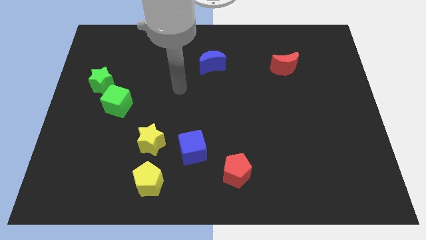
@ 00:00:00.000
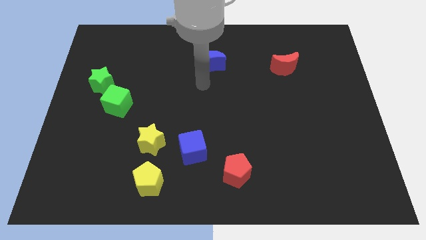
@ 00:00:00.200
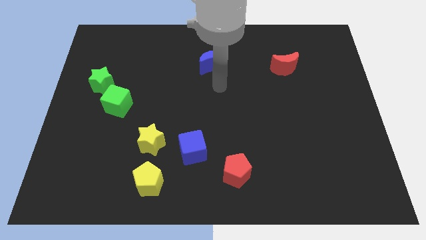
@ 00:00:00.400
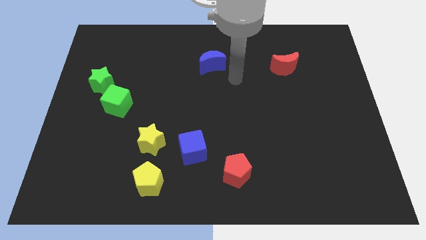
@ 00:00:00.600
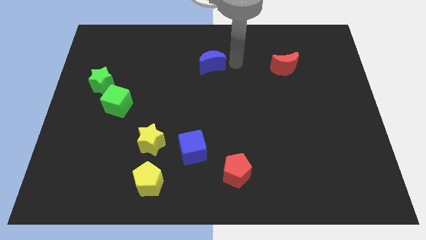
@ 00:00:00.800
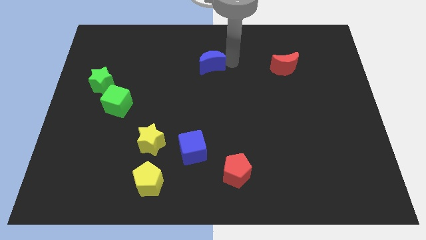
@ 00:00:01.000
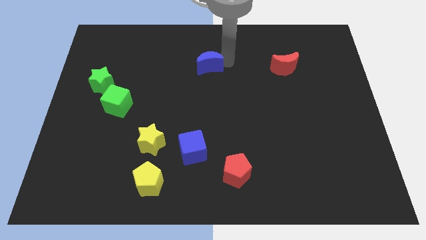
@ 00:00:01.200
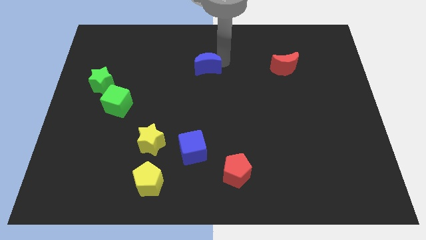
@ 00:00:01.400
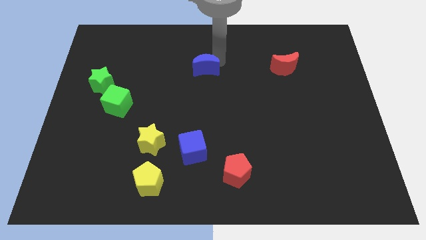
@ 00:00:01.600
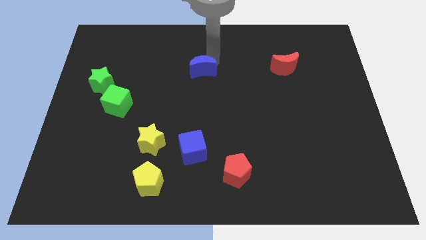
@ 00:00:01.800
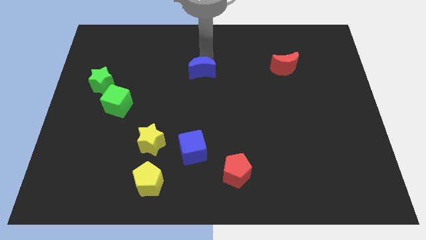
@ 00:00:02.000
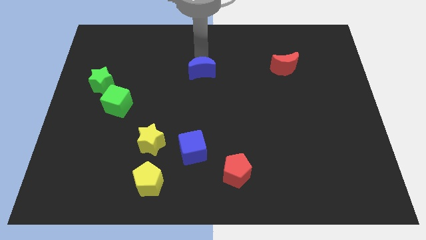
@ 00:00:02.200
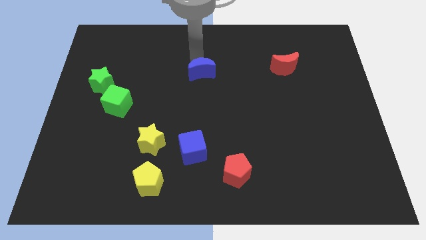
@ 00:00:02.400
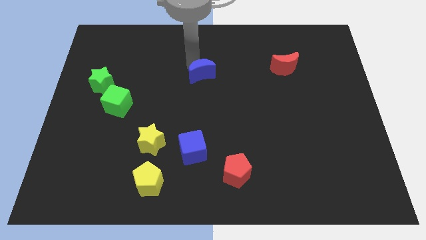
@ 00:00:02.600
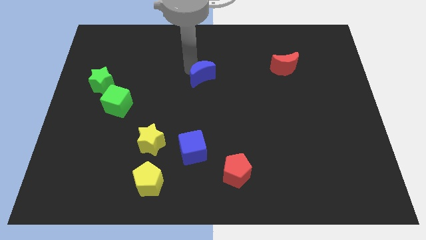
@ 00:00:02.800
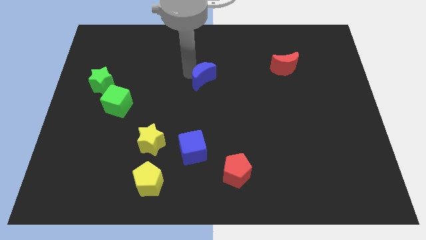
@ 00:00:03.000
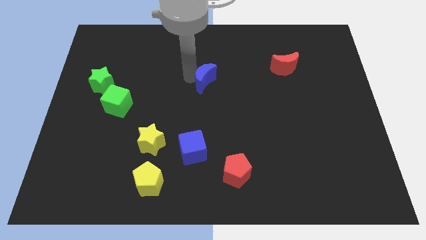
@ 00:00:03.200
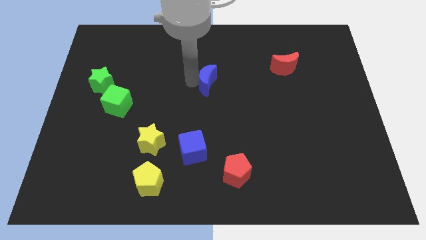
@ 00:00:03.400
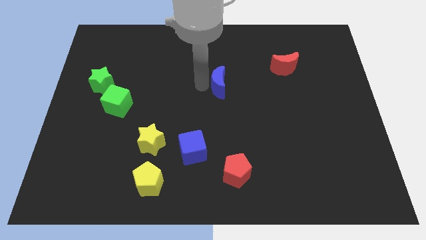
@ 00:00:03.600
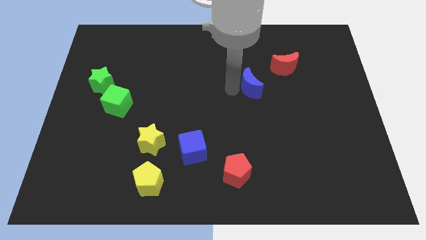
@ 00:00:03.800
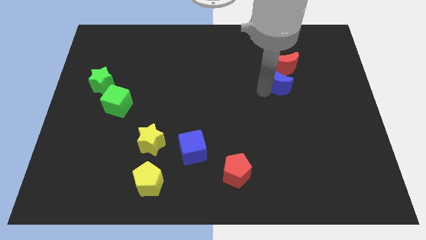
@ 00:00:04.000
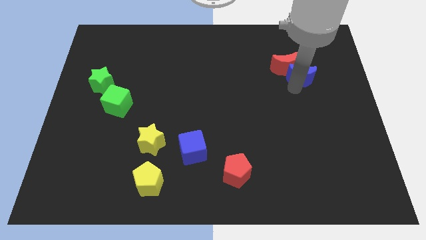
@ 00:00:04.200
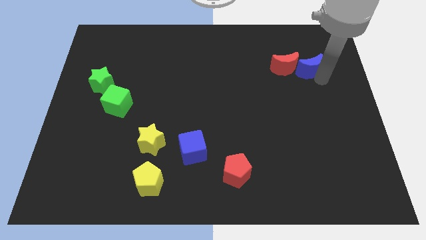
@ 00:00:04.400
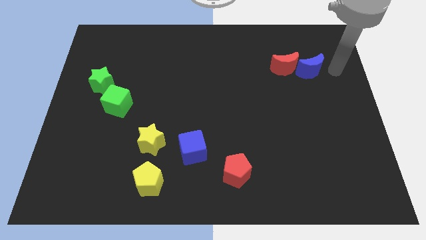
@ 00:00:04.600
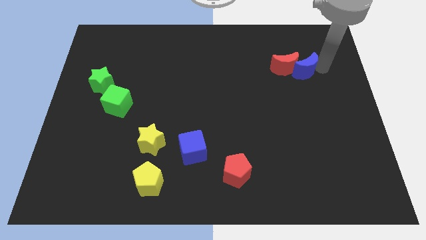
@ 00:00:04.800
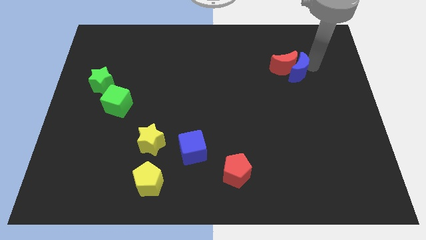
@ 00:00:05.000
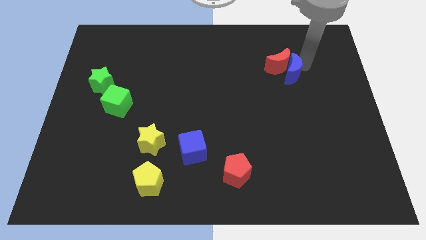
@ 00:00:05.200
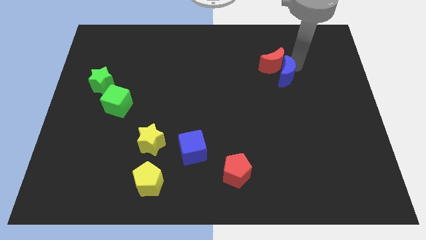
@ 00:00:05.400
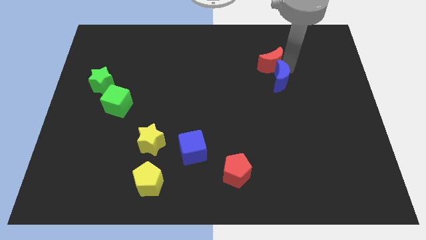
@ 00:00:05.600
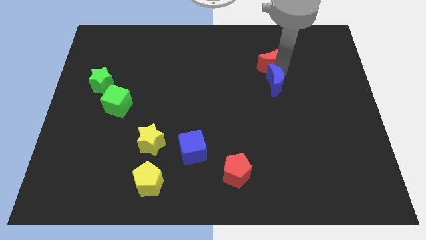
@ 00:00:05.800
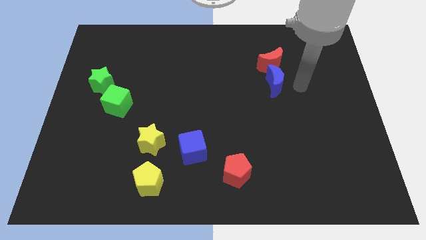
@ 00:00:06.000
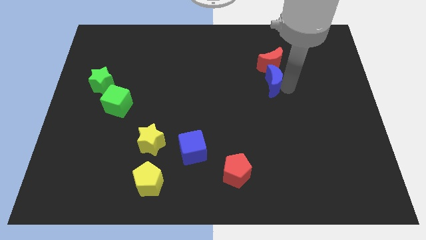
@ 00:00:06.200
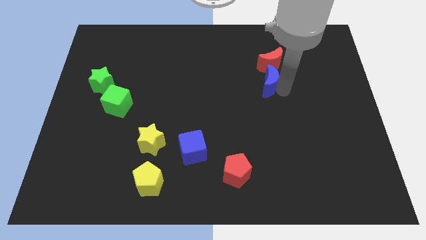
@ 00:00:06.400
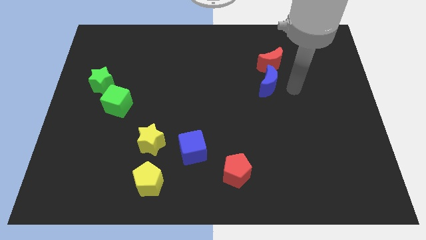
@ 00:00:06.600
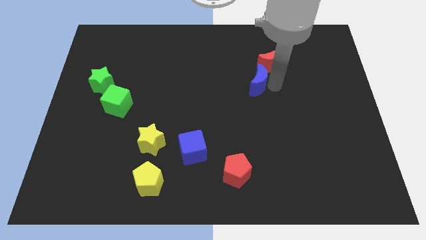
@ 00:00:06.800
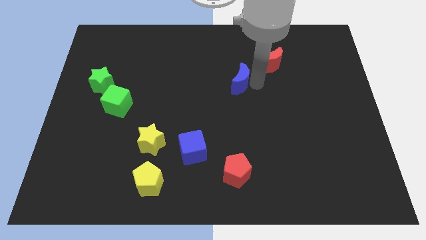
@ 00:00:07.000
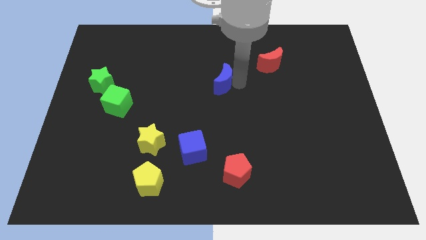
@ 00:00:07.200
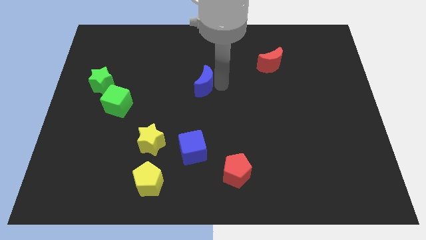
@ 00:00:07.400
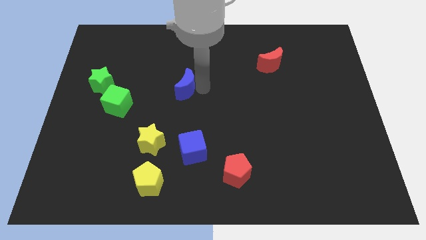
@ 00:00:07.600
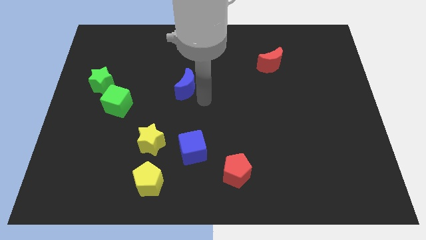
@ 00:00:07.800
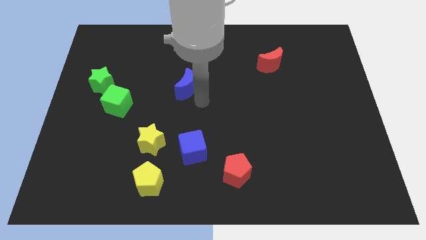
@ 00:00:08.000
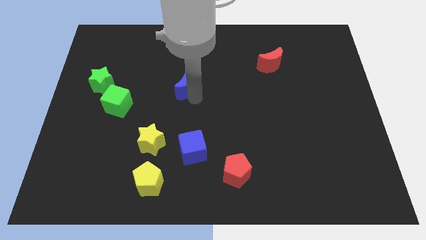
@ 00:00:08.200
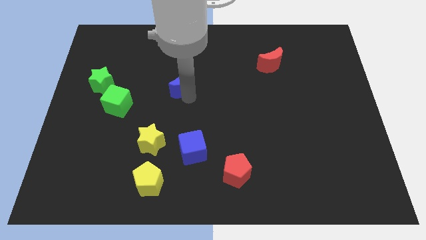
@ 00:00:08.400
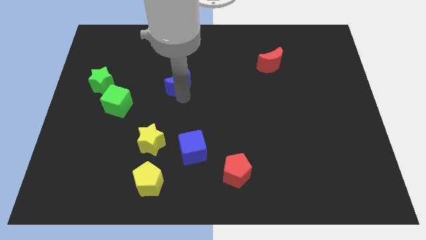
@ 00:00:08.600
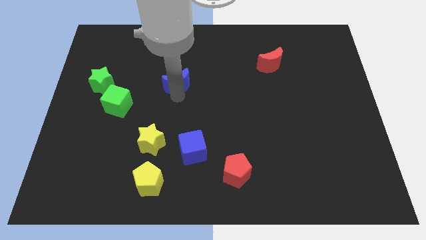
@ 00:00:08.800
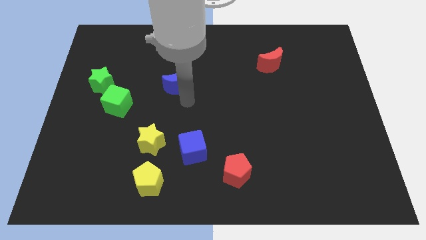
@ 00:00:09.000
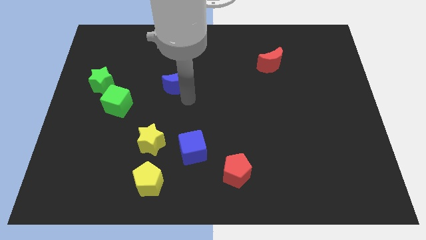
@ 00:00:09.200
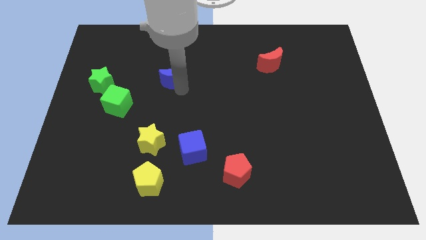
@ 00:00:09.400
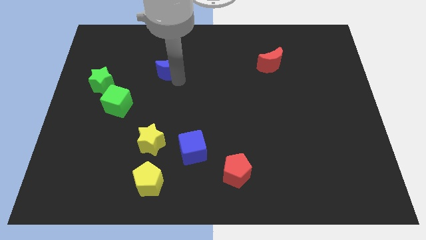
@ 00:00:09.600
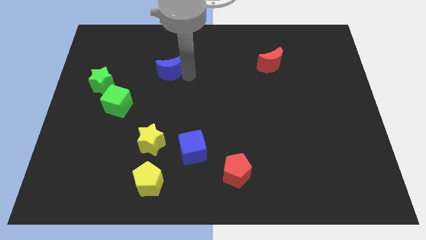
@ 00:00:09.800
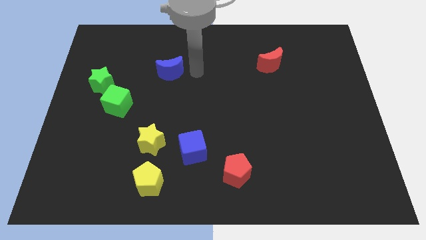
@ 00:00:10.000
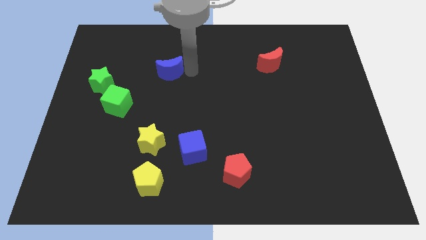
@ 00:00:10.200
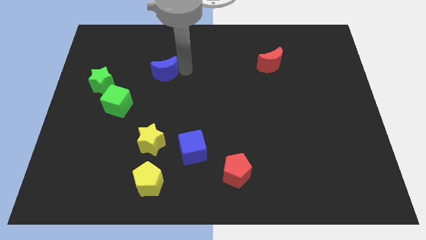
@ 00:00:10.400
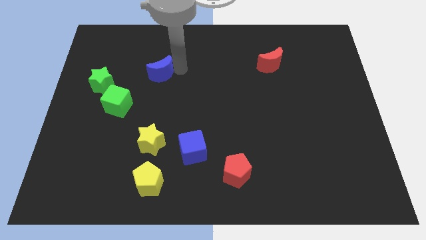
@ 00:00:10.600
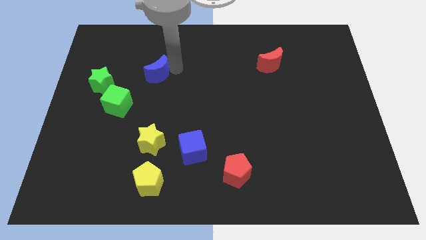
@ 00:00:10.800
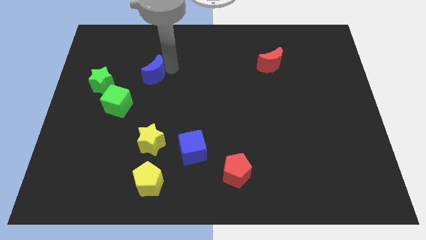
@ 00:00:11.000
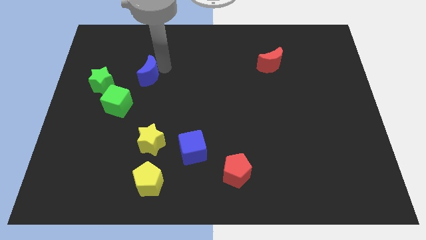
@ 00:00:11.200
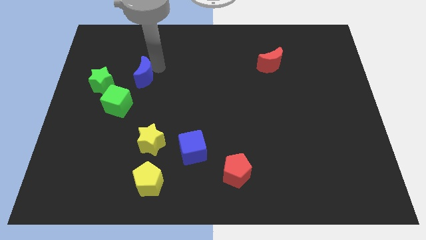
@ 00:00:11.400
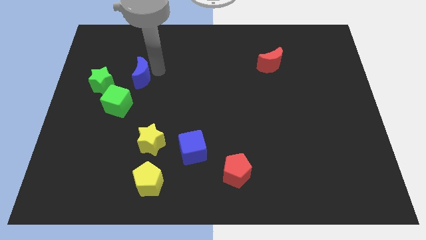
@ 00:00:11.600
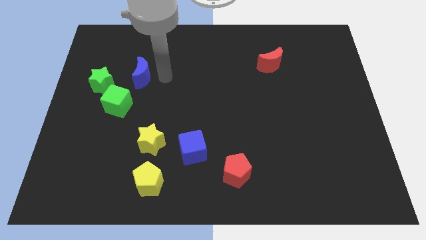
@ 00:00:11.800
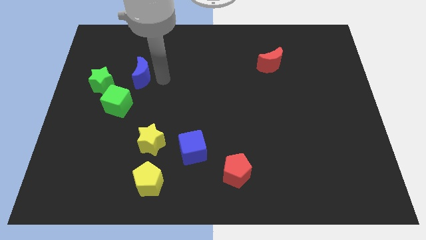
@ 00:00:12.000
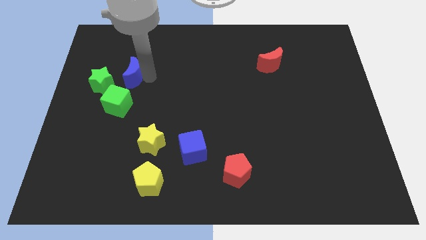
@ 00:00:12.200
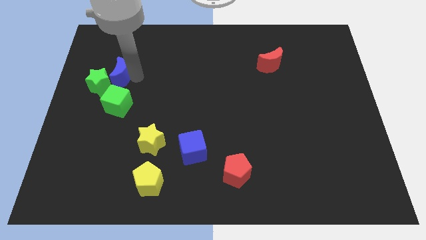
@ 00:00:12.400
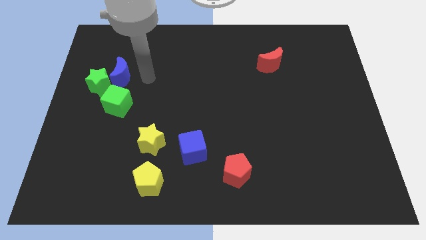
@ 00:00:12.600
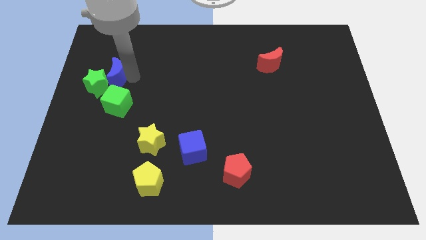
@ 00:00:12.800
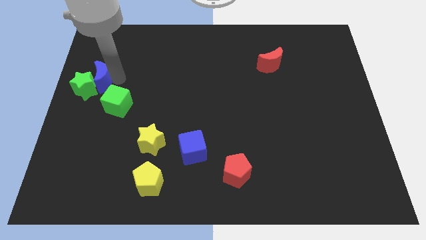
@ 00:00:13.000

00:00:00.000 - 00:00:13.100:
slide the blue moon to the center left

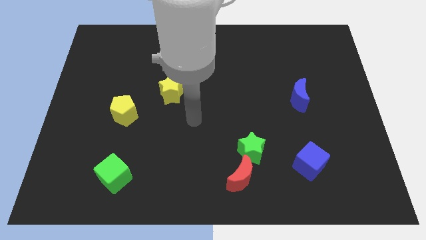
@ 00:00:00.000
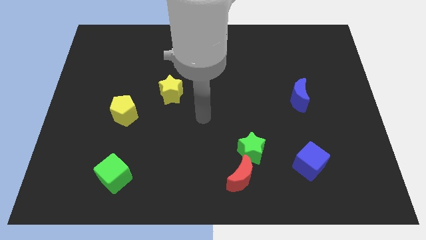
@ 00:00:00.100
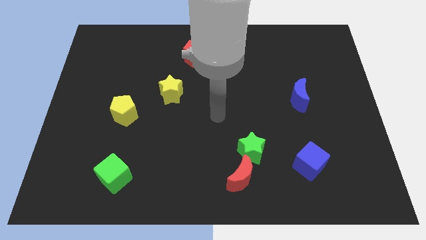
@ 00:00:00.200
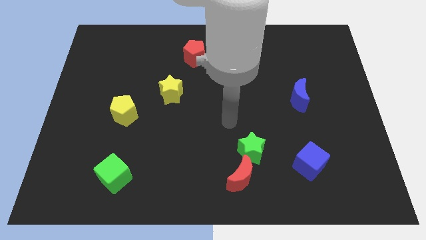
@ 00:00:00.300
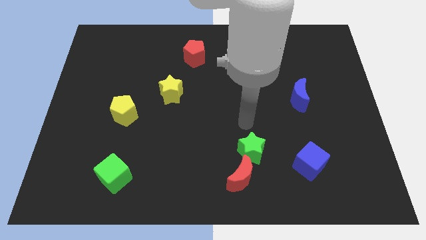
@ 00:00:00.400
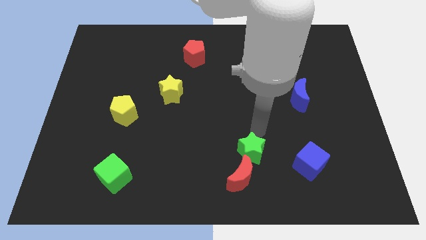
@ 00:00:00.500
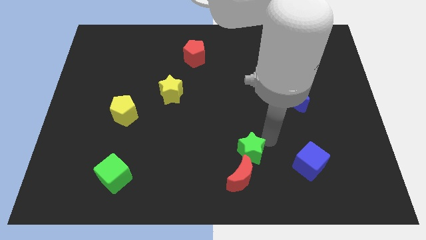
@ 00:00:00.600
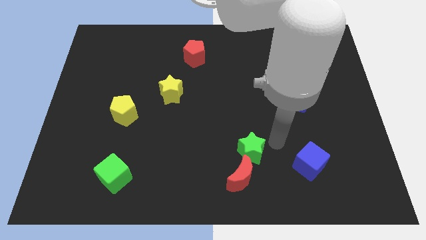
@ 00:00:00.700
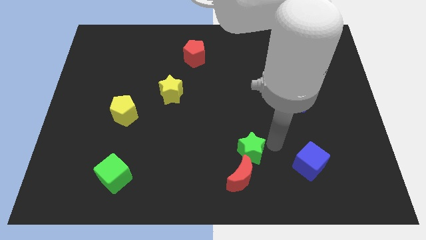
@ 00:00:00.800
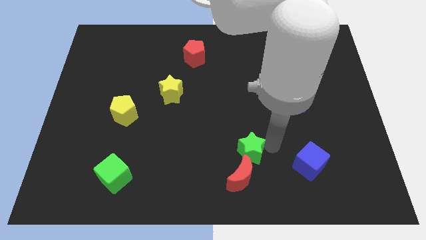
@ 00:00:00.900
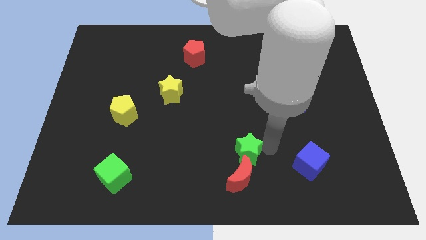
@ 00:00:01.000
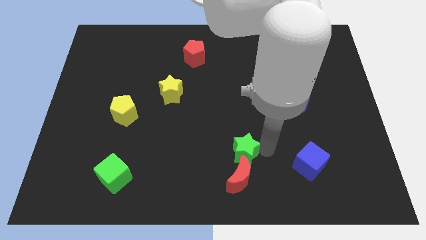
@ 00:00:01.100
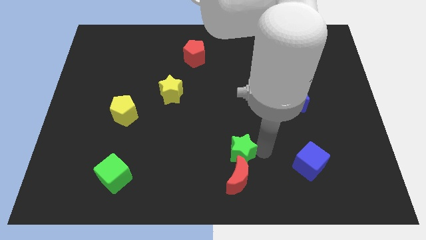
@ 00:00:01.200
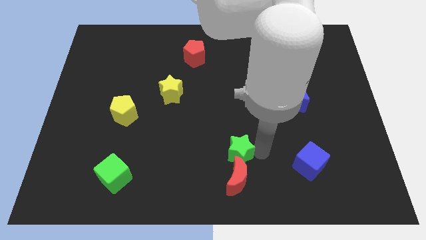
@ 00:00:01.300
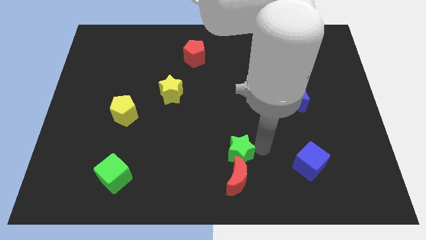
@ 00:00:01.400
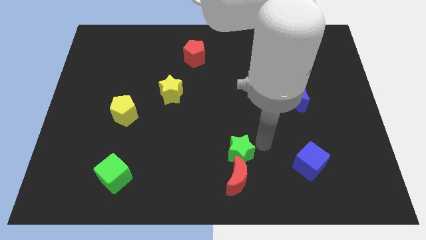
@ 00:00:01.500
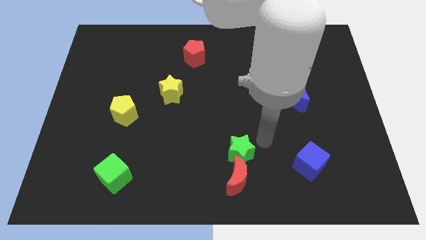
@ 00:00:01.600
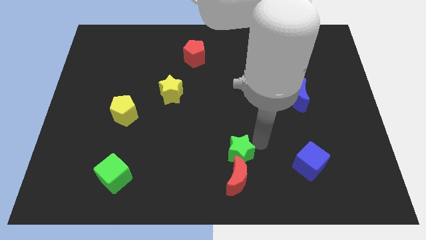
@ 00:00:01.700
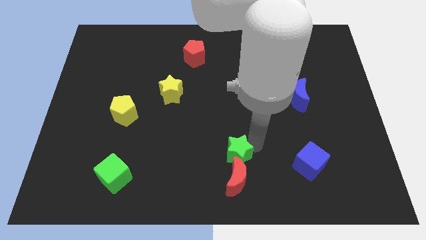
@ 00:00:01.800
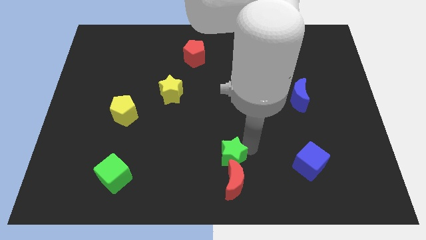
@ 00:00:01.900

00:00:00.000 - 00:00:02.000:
slide the green star to the bottom
